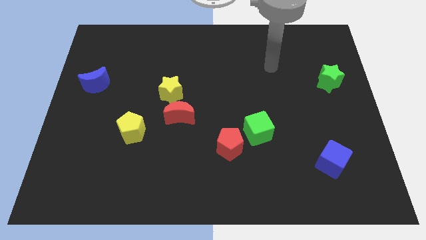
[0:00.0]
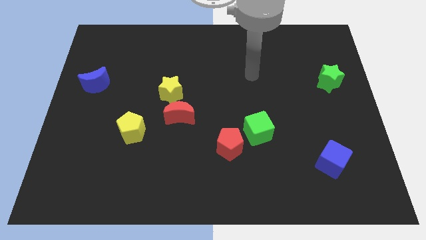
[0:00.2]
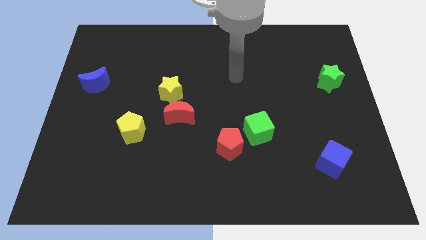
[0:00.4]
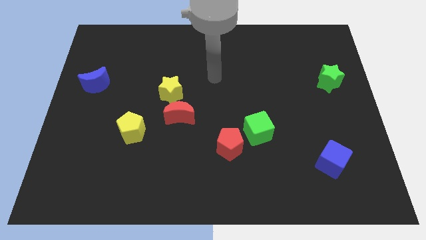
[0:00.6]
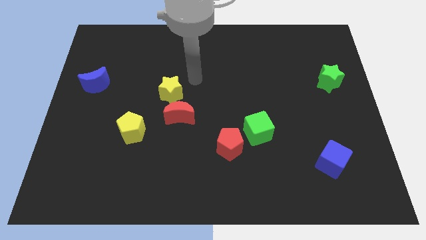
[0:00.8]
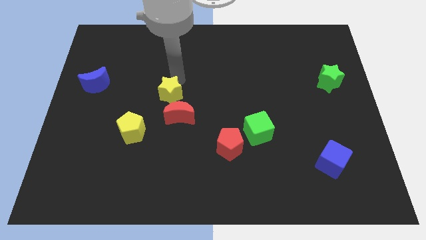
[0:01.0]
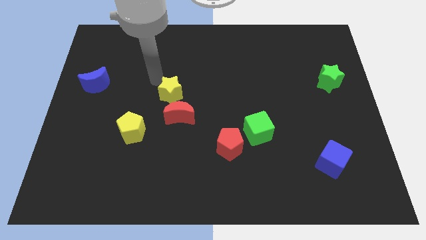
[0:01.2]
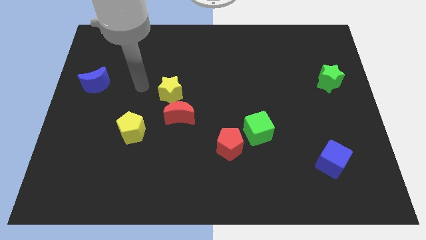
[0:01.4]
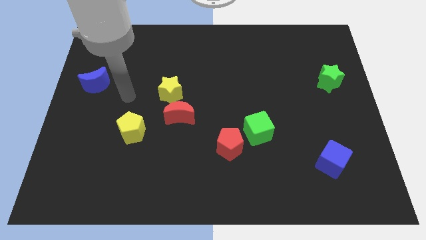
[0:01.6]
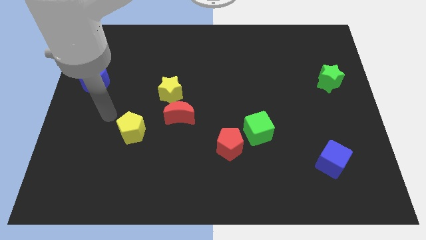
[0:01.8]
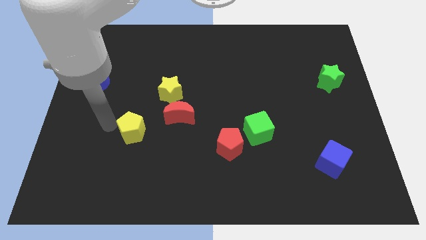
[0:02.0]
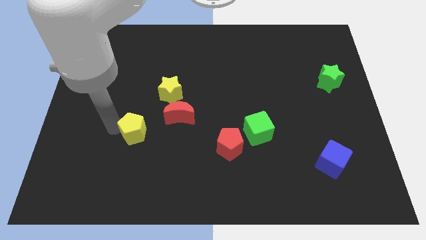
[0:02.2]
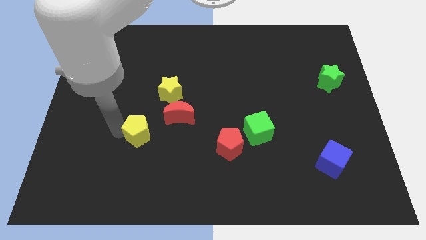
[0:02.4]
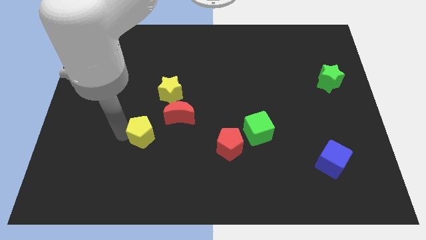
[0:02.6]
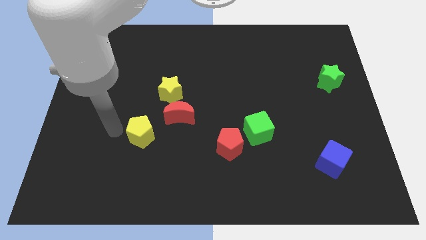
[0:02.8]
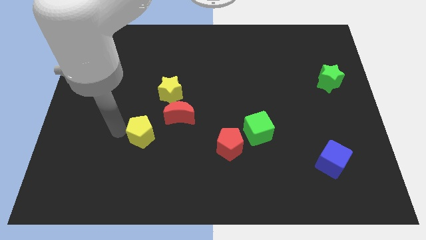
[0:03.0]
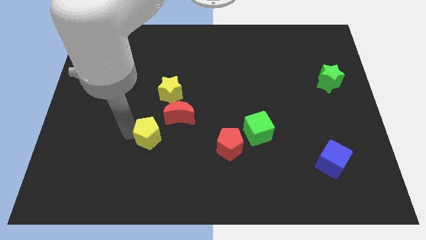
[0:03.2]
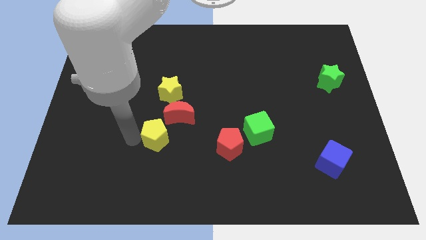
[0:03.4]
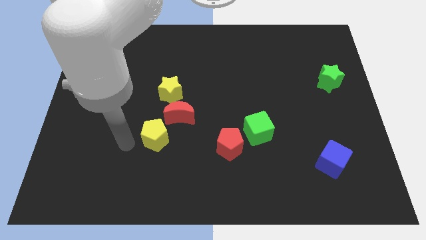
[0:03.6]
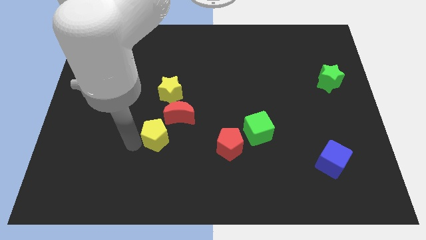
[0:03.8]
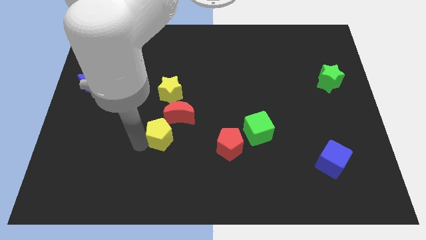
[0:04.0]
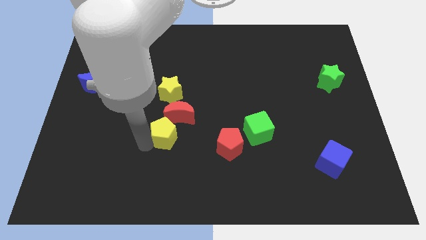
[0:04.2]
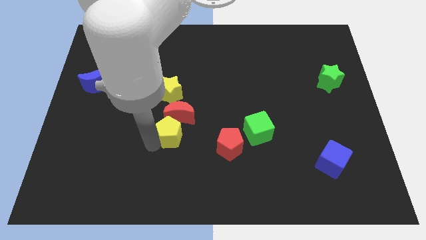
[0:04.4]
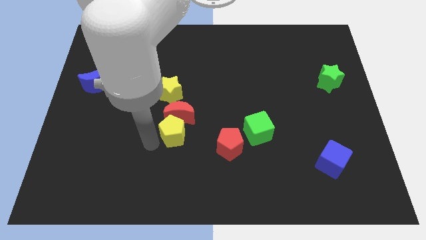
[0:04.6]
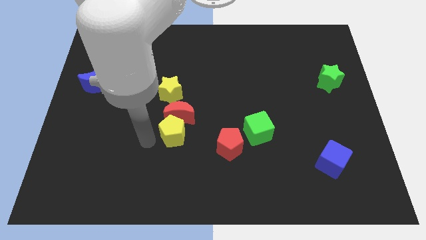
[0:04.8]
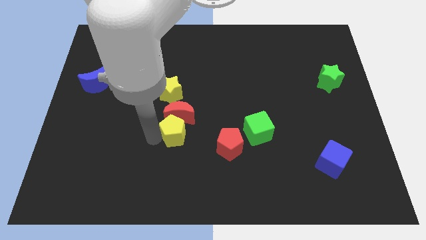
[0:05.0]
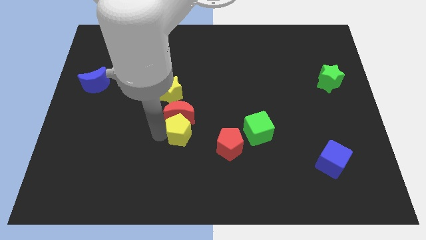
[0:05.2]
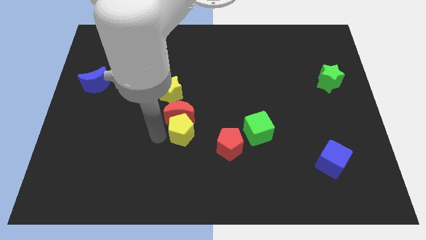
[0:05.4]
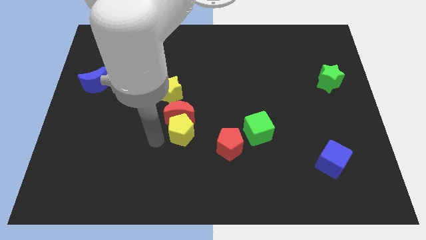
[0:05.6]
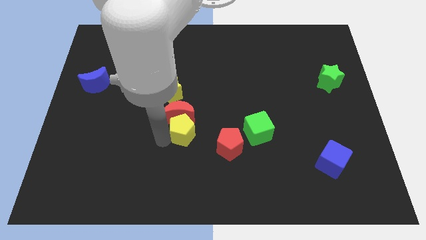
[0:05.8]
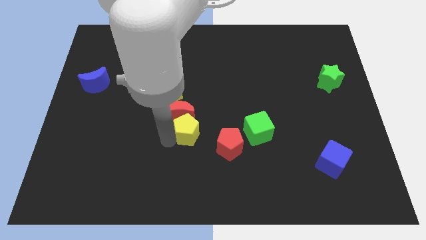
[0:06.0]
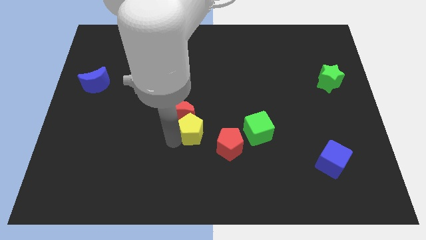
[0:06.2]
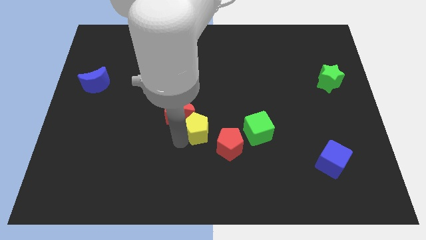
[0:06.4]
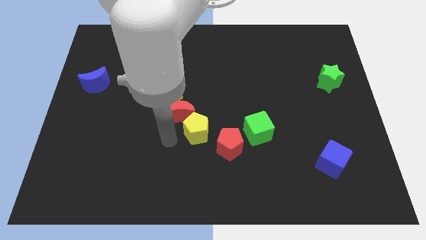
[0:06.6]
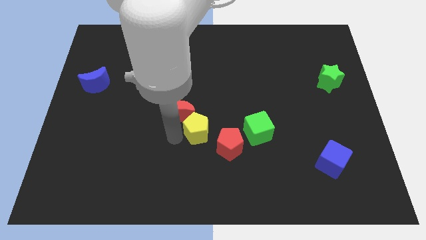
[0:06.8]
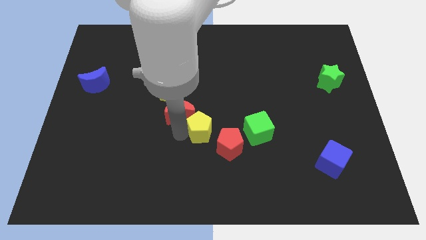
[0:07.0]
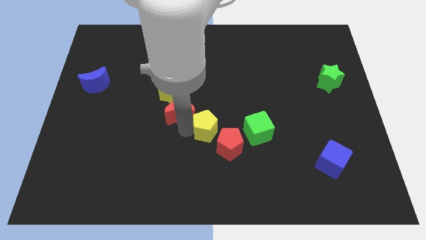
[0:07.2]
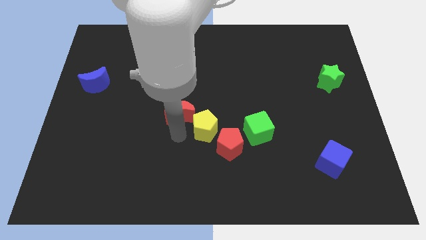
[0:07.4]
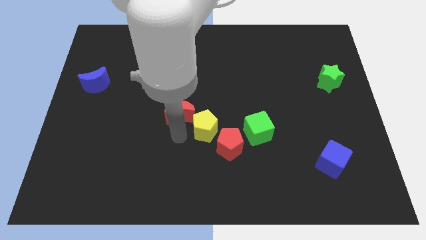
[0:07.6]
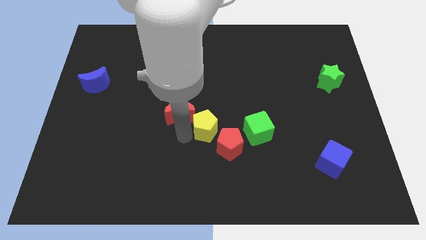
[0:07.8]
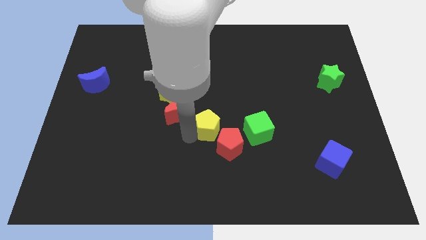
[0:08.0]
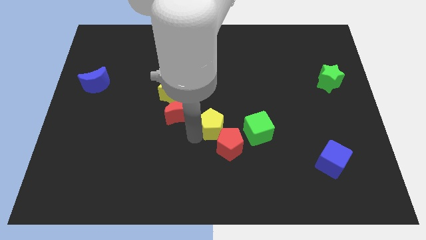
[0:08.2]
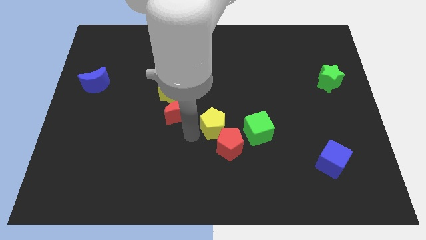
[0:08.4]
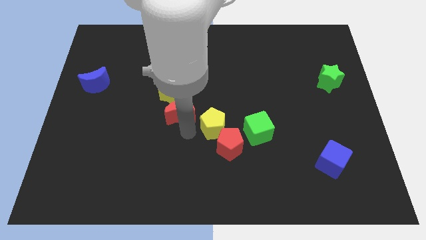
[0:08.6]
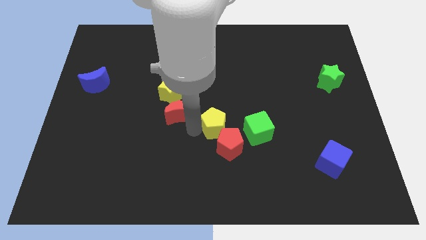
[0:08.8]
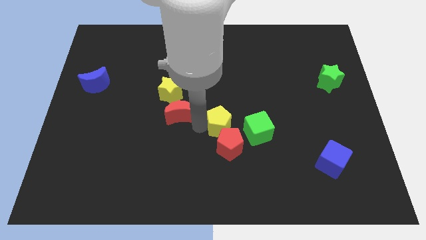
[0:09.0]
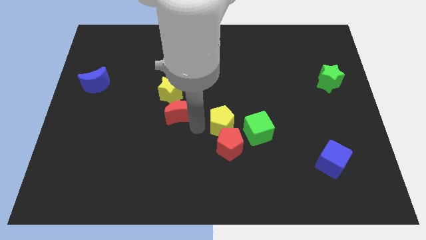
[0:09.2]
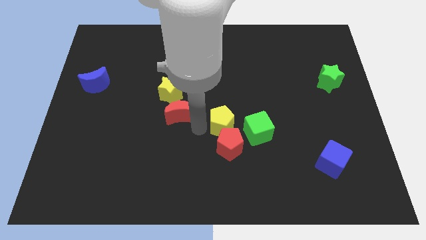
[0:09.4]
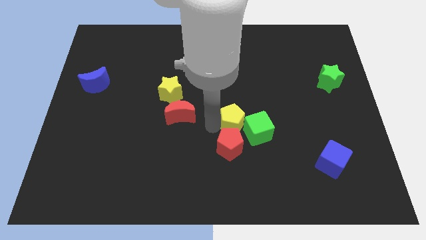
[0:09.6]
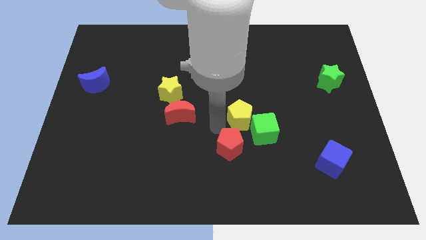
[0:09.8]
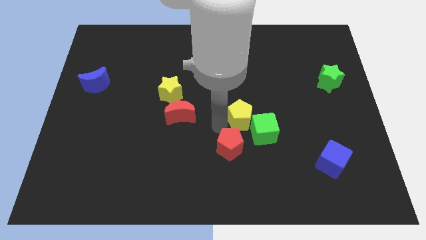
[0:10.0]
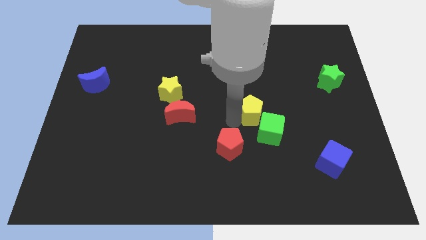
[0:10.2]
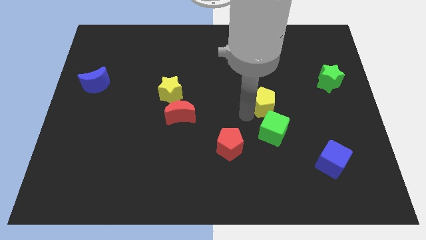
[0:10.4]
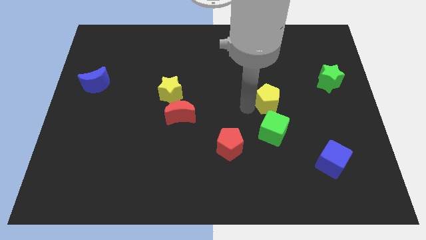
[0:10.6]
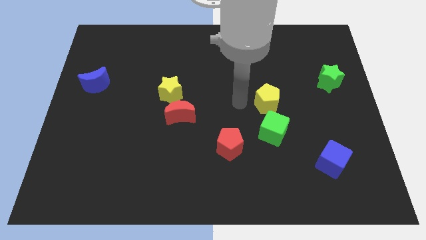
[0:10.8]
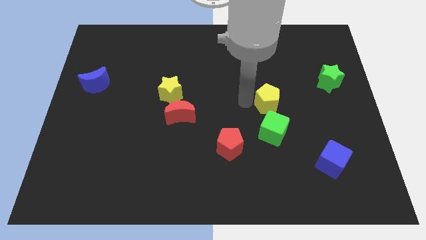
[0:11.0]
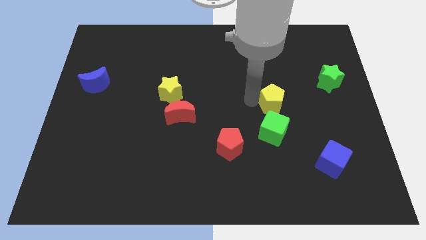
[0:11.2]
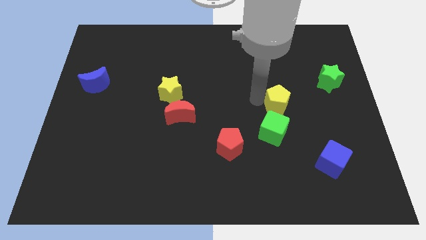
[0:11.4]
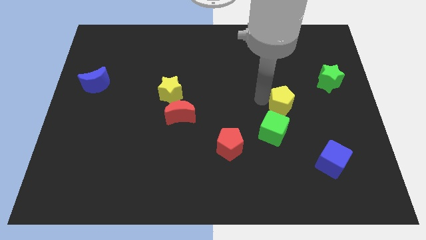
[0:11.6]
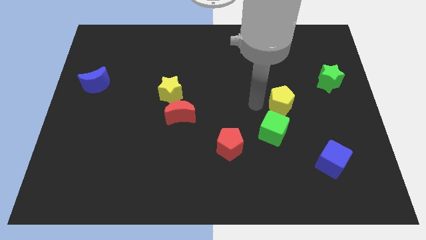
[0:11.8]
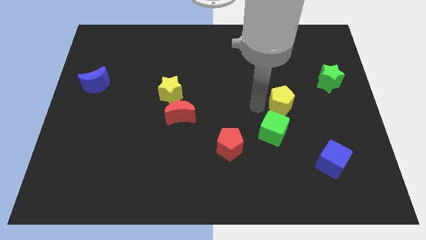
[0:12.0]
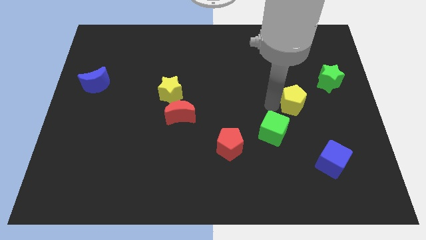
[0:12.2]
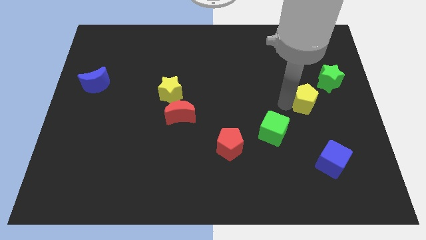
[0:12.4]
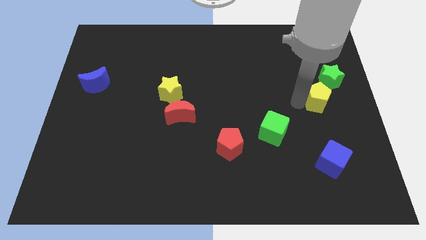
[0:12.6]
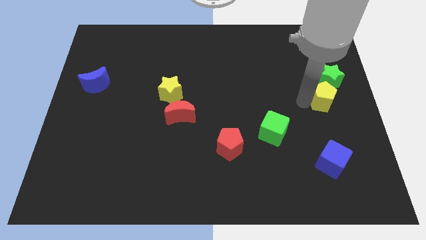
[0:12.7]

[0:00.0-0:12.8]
move the yellow pentagon to the center right
